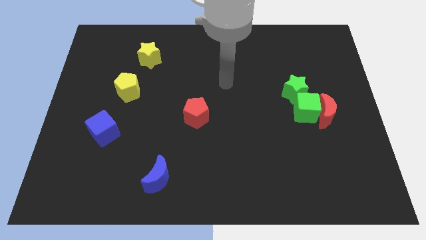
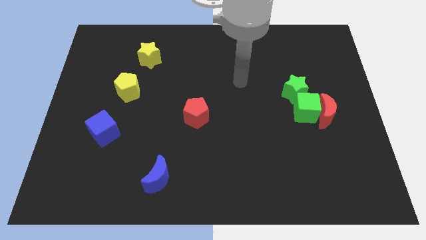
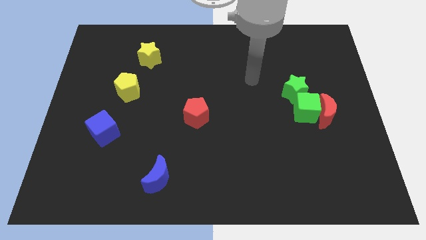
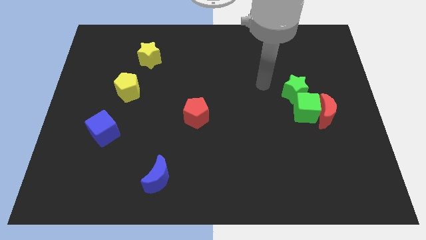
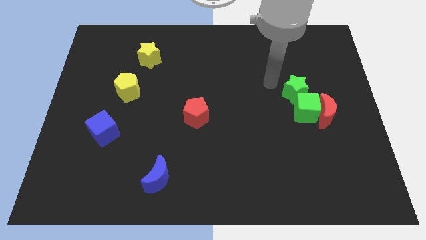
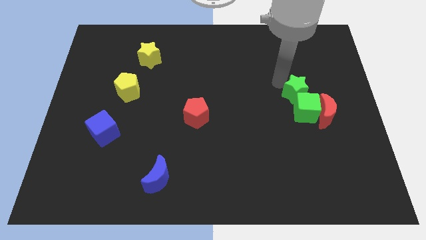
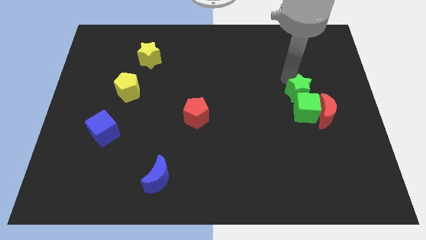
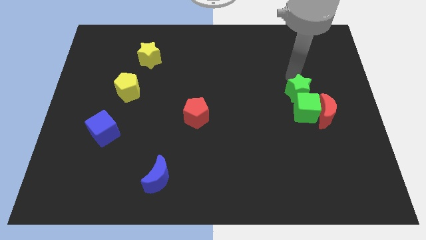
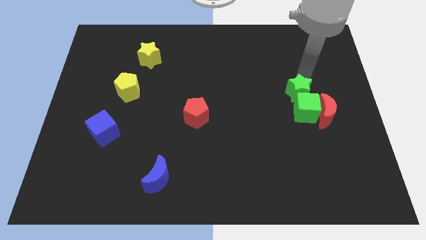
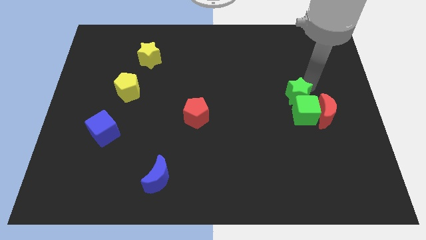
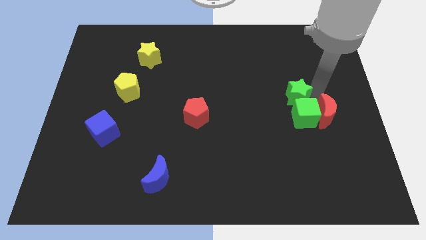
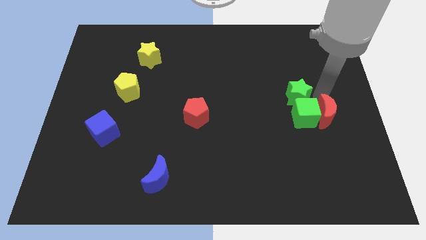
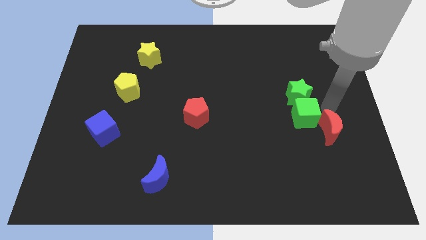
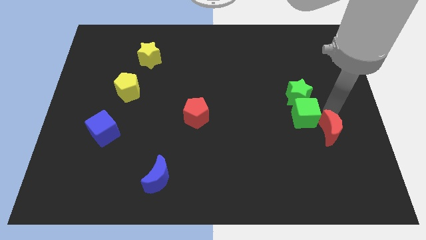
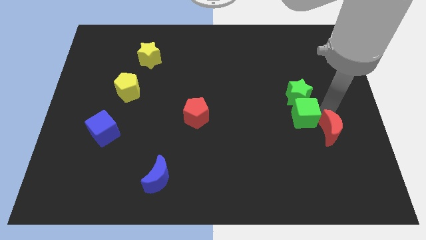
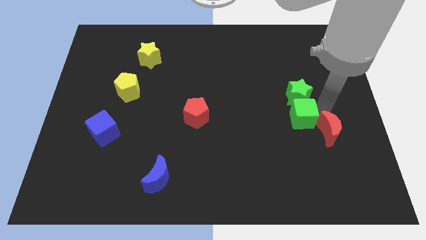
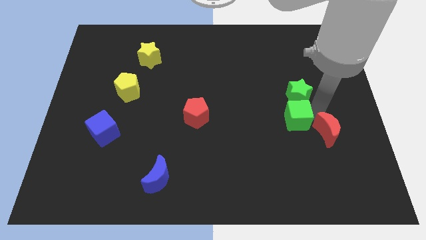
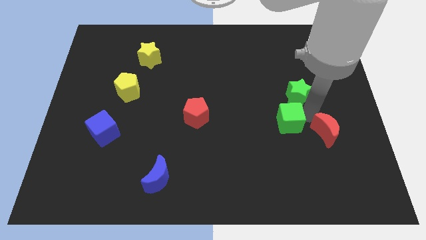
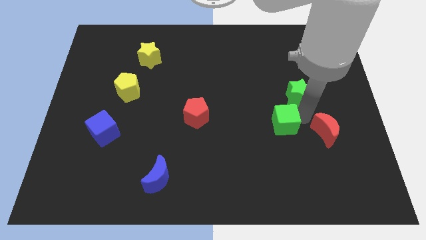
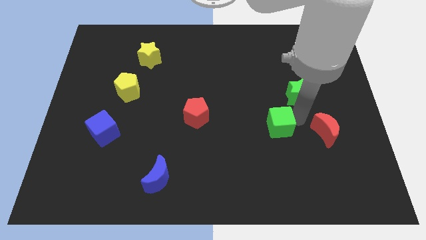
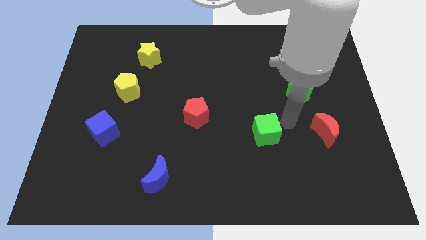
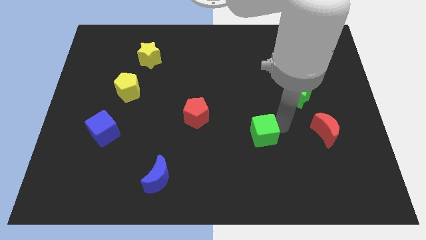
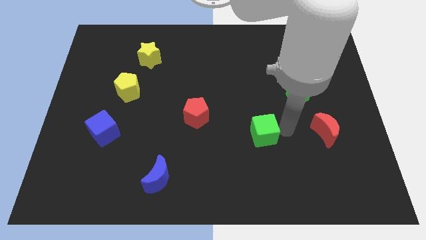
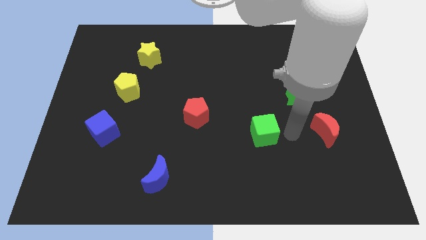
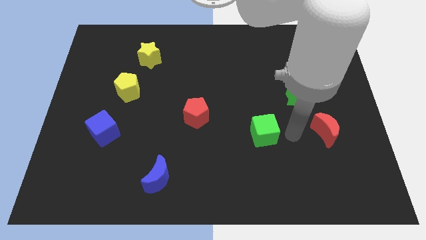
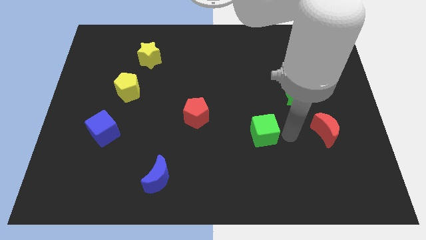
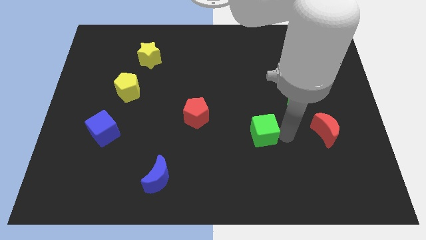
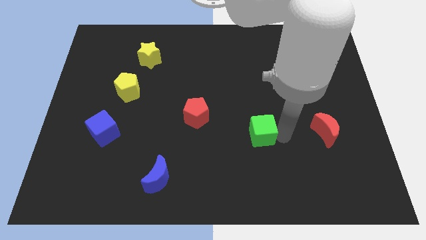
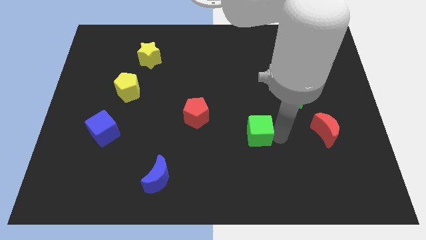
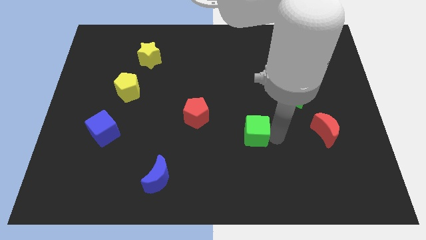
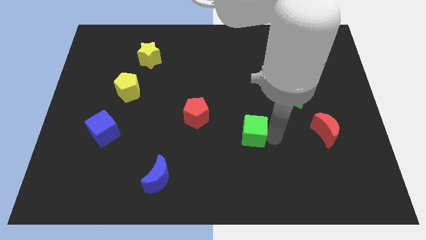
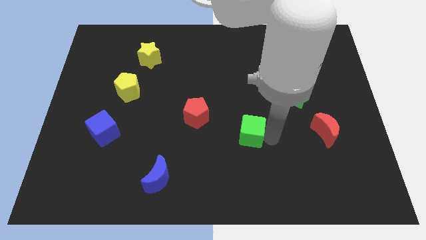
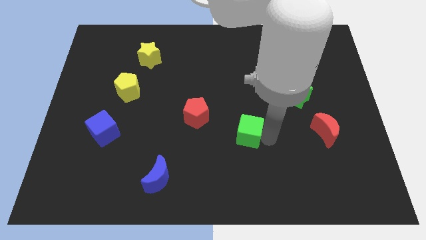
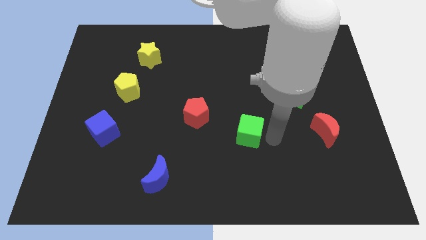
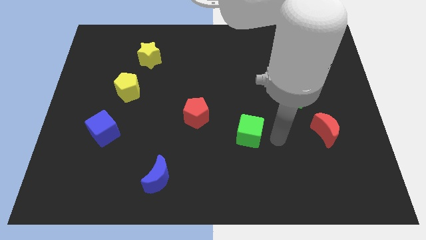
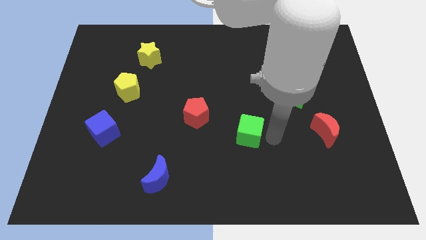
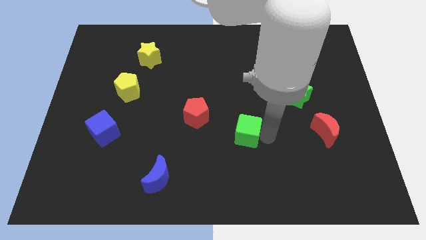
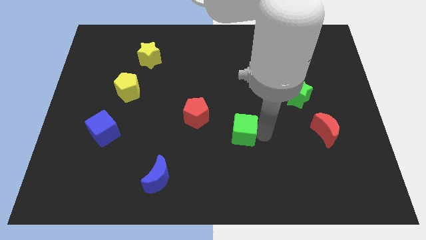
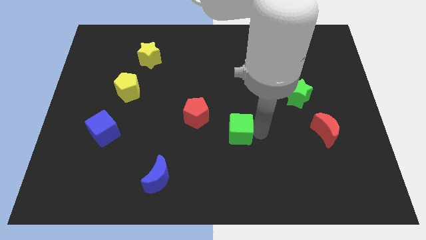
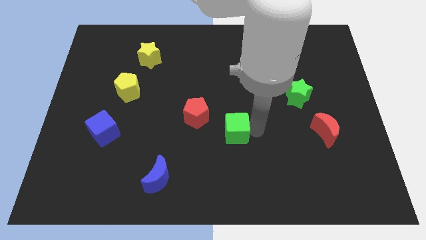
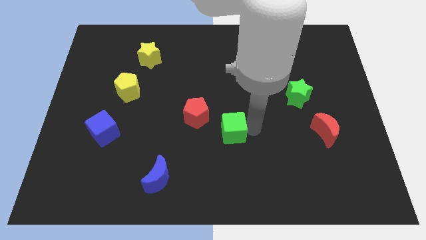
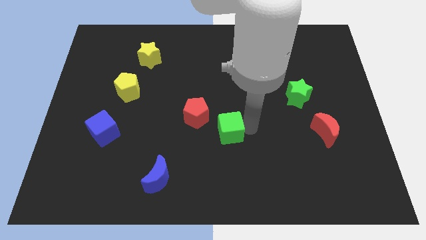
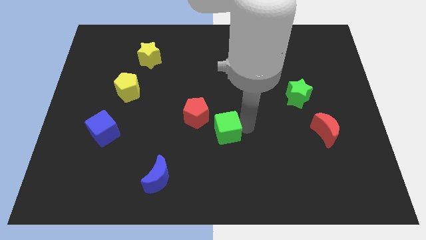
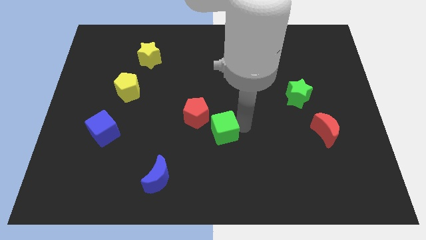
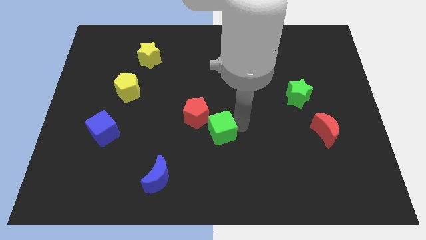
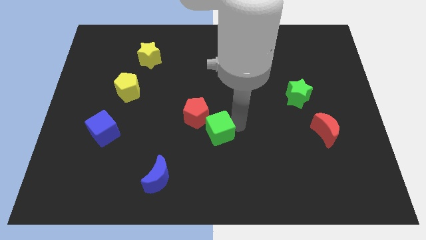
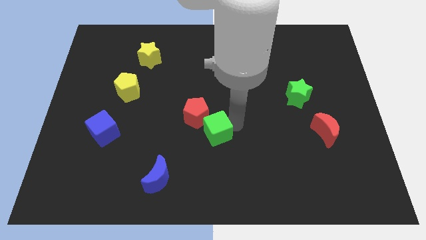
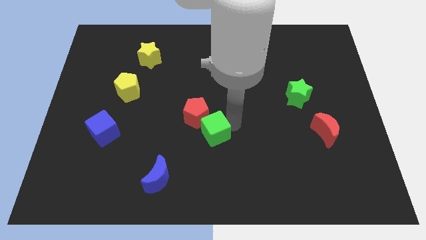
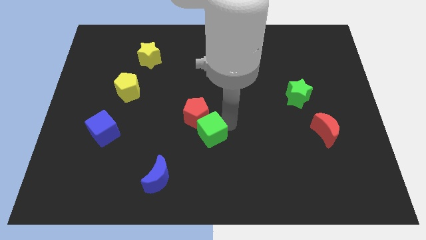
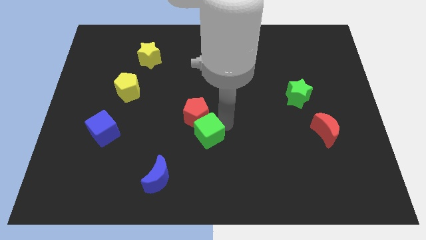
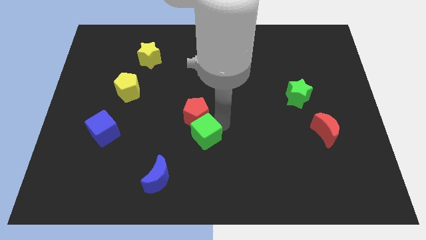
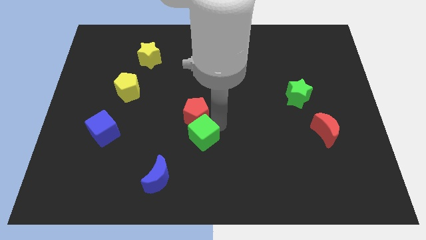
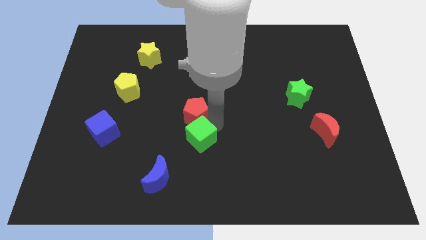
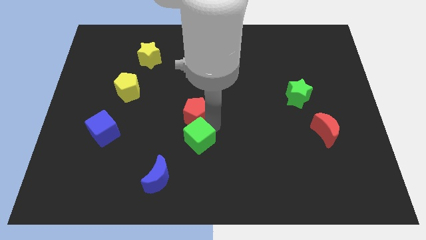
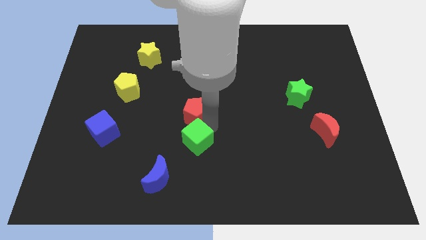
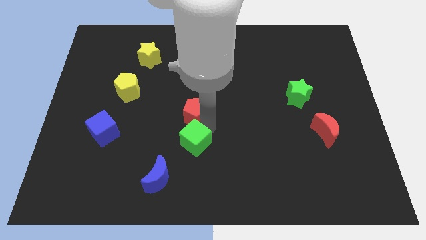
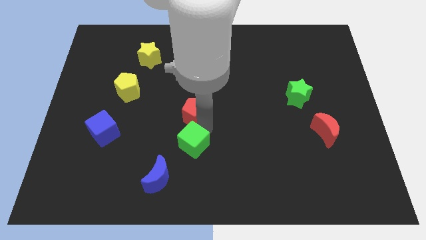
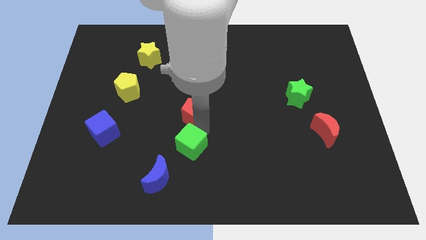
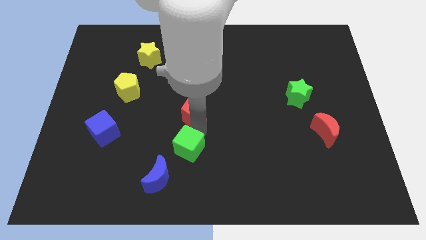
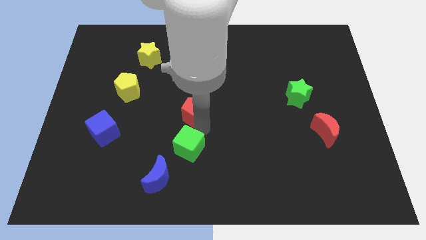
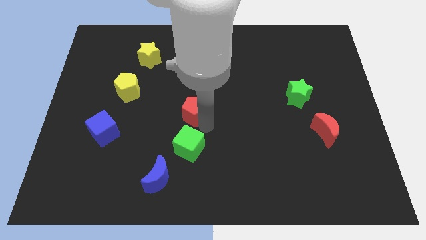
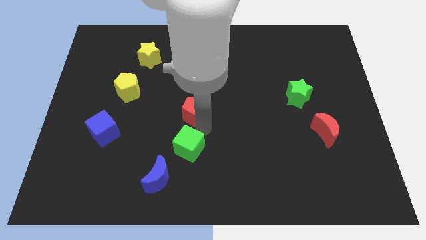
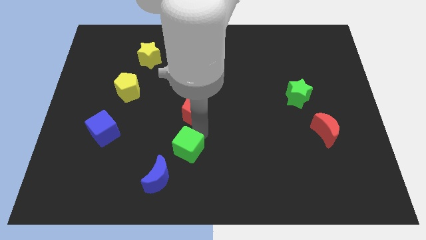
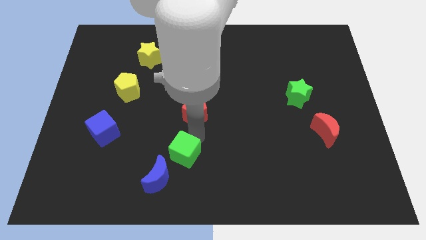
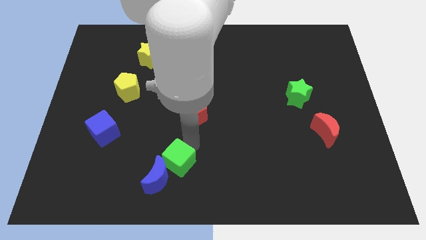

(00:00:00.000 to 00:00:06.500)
move the green cube towards the blue moon

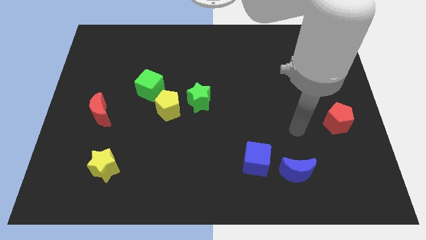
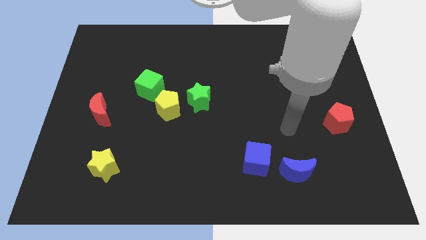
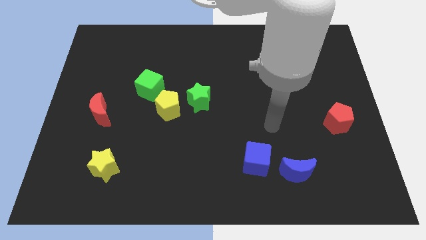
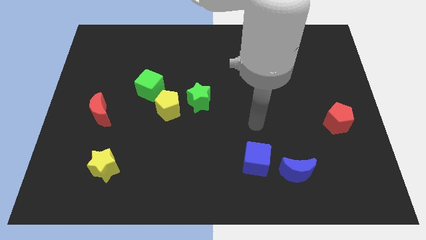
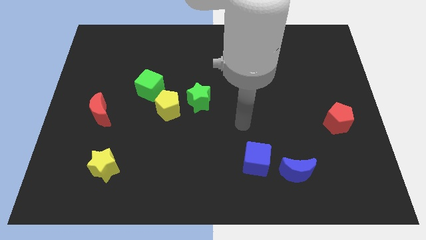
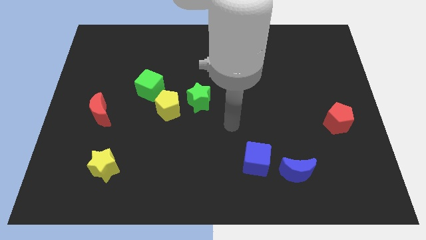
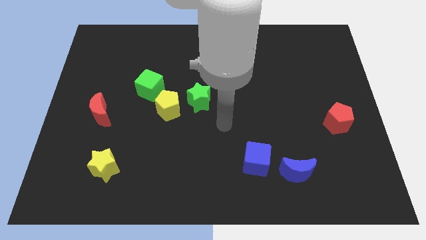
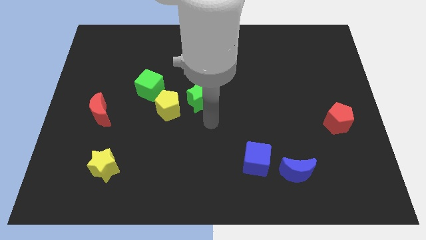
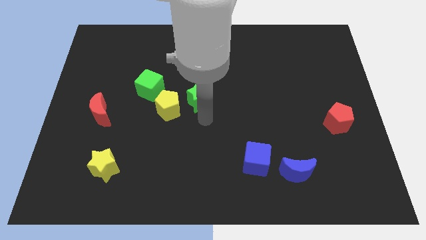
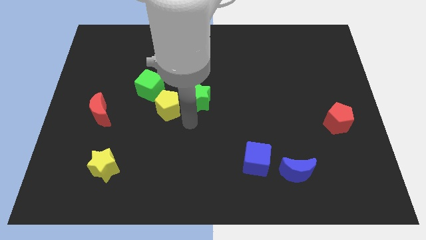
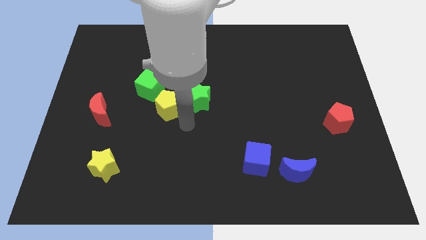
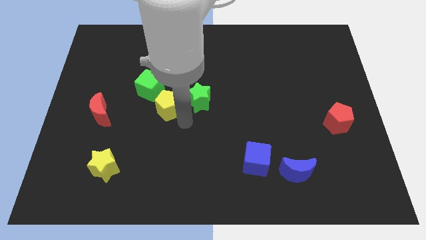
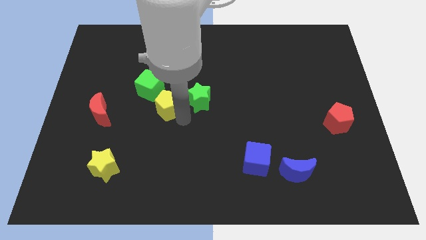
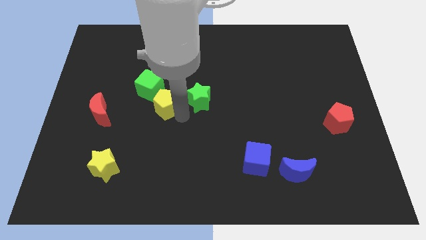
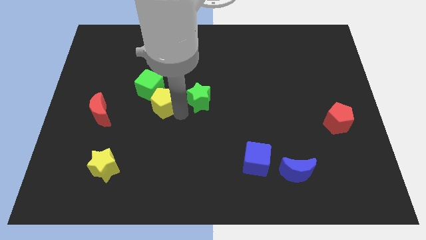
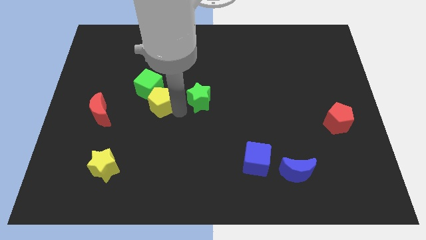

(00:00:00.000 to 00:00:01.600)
put the yellow pentagon to the green cube

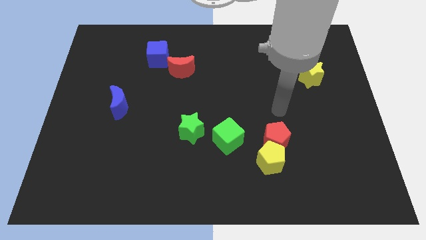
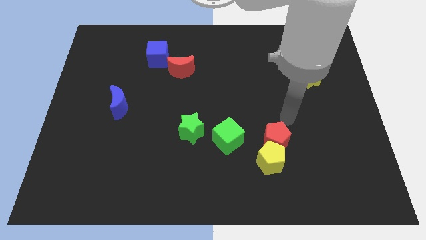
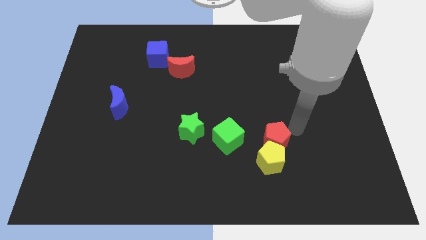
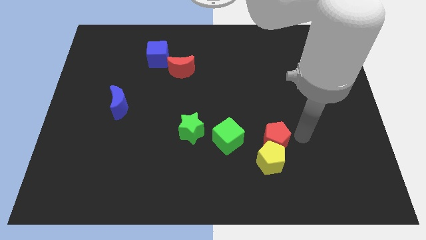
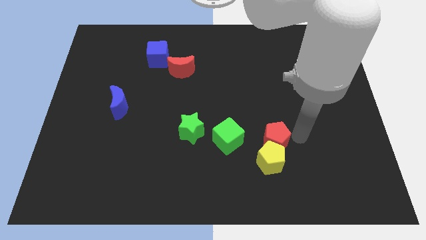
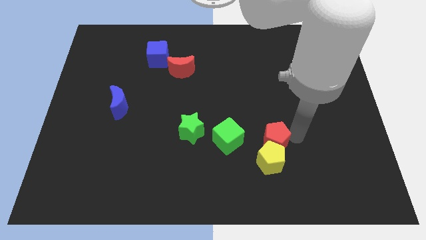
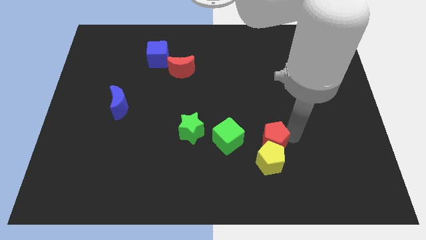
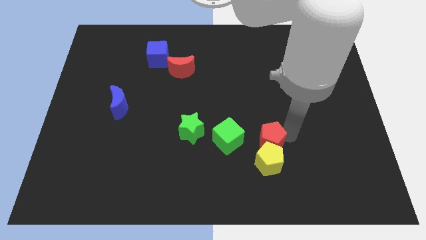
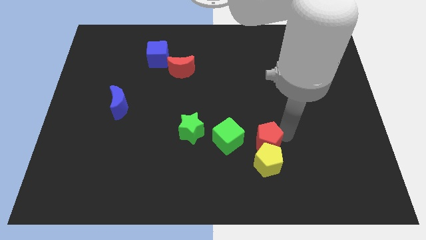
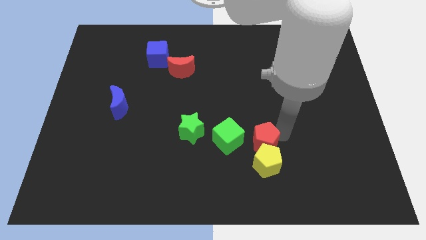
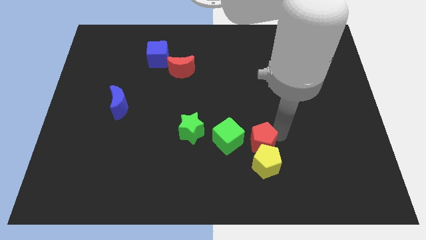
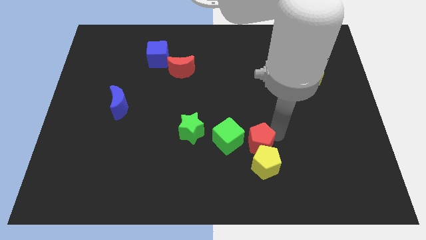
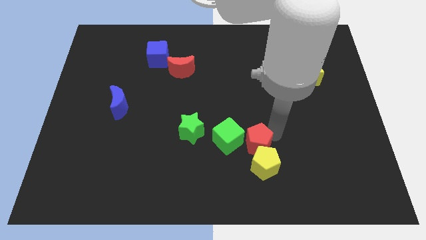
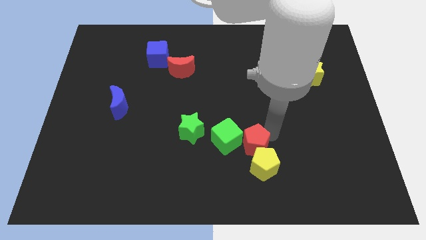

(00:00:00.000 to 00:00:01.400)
slide the red pentagon towards the green cube
